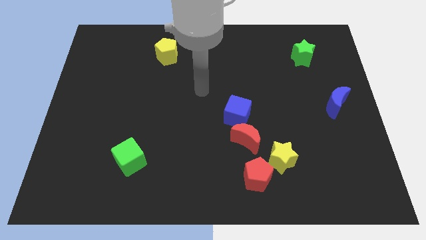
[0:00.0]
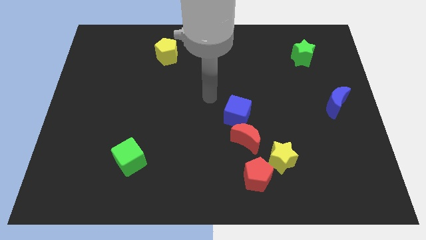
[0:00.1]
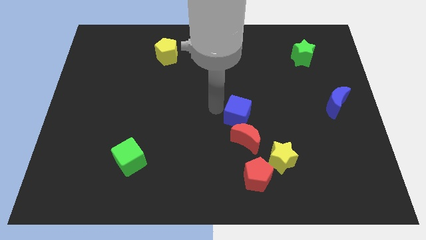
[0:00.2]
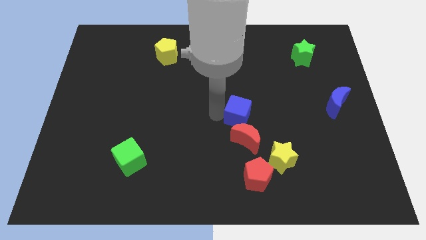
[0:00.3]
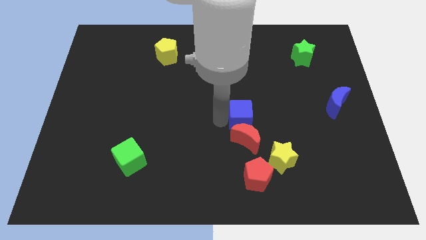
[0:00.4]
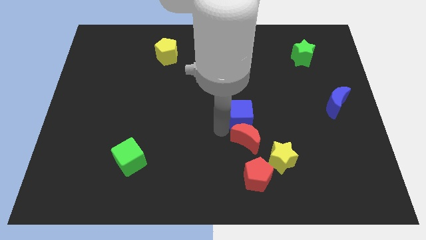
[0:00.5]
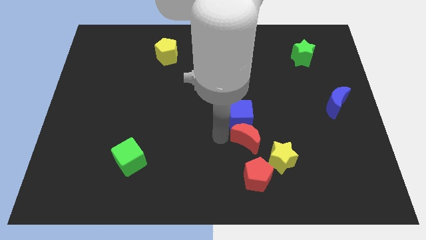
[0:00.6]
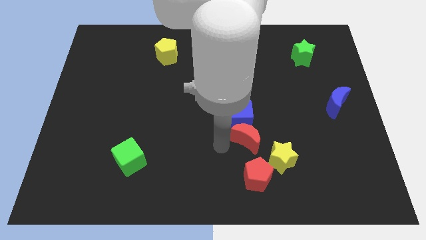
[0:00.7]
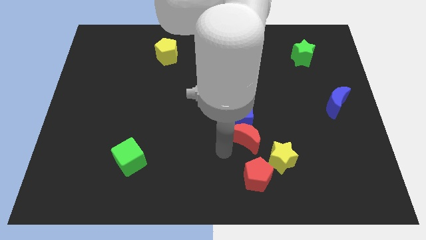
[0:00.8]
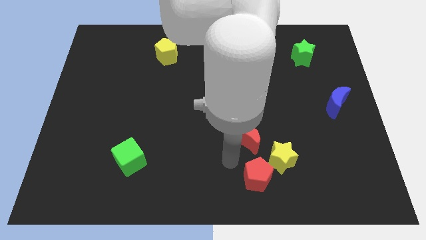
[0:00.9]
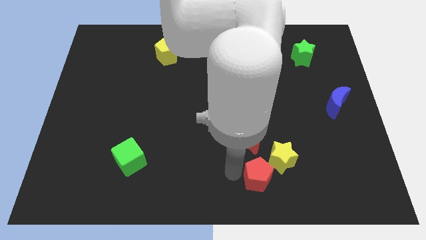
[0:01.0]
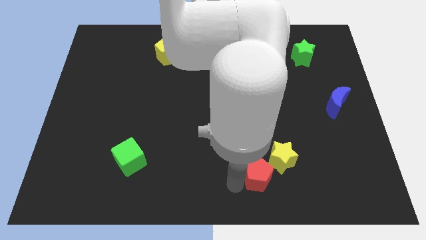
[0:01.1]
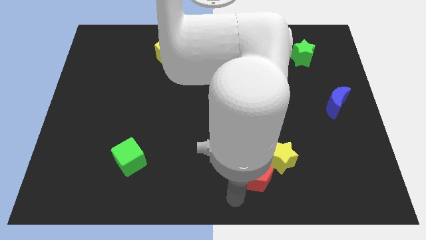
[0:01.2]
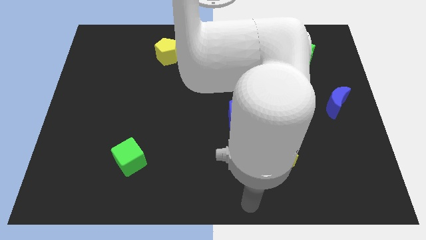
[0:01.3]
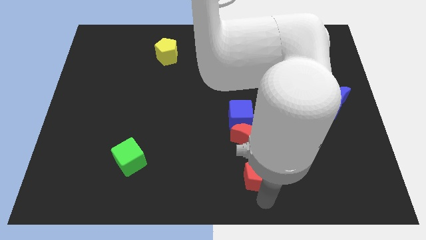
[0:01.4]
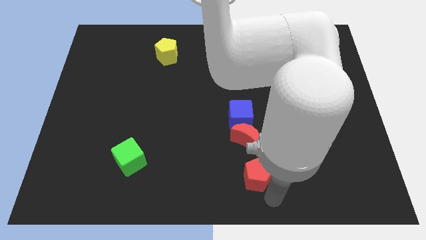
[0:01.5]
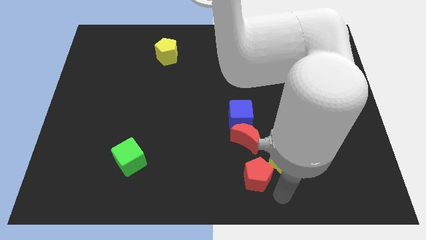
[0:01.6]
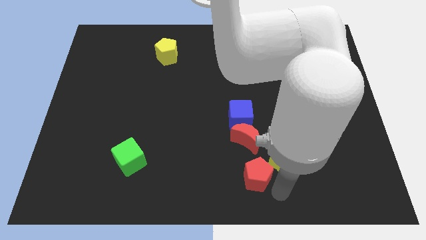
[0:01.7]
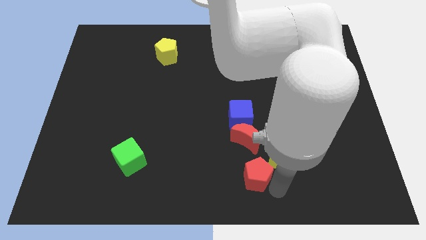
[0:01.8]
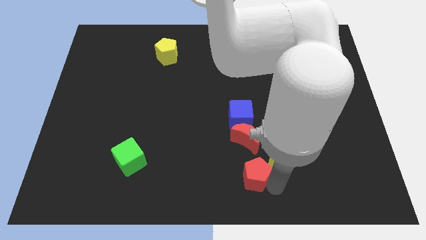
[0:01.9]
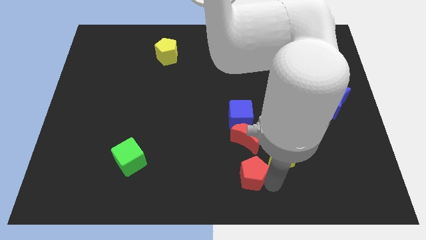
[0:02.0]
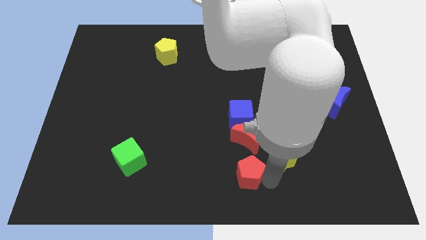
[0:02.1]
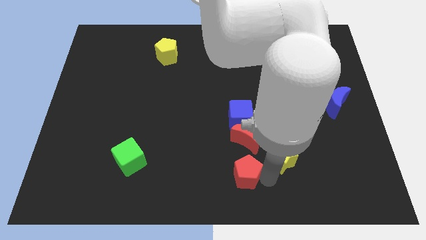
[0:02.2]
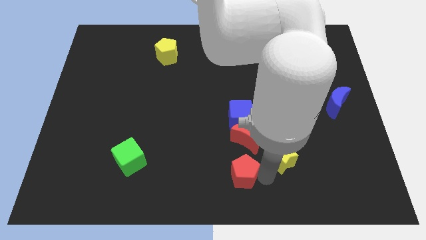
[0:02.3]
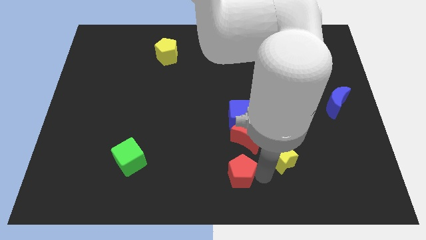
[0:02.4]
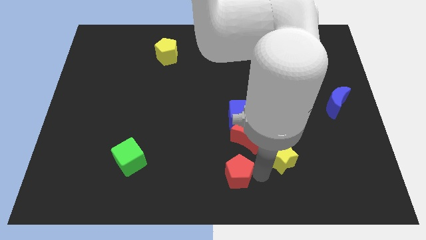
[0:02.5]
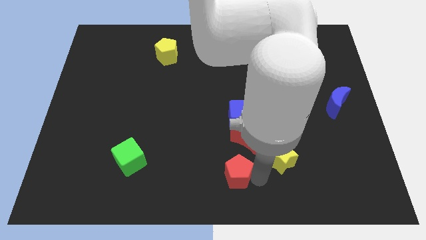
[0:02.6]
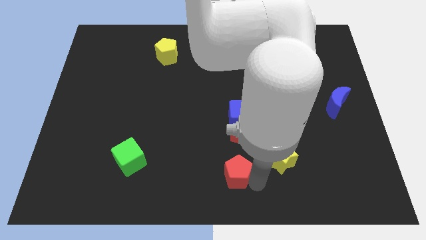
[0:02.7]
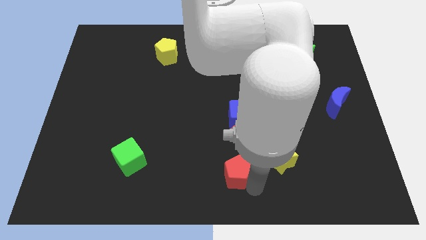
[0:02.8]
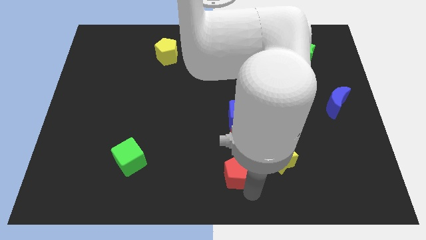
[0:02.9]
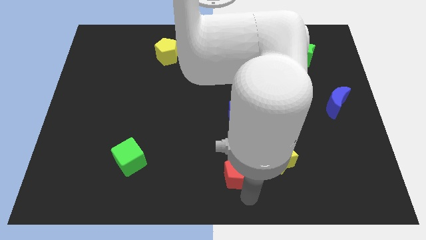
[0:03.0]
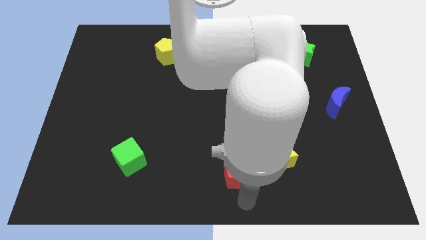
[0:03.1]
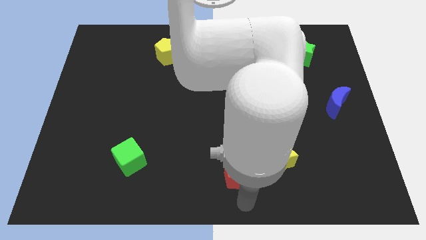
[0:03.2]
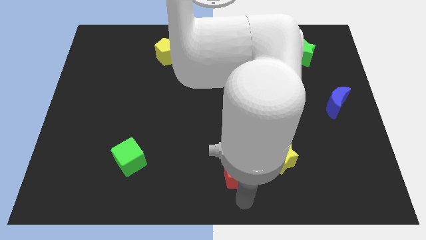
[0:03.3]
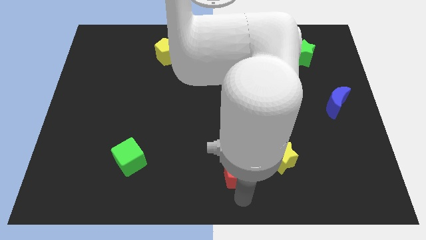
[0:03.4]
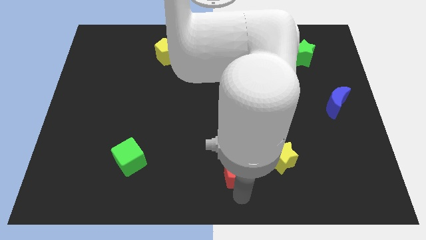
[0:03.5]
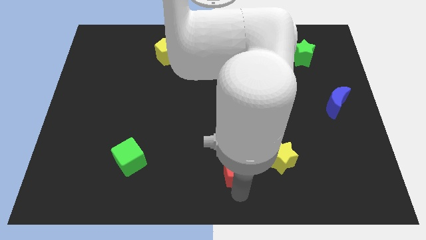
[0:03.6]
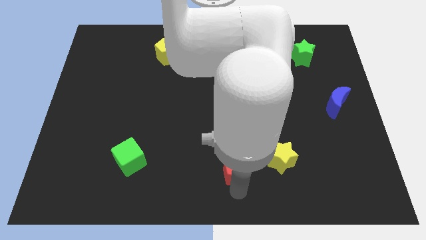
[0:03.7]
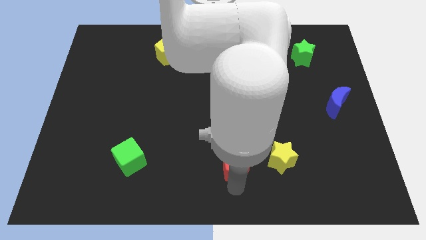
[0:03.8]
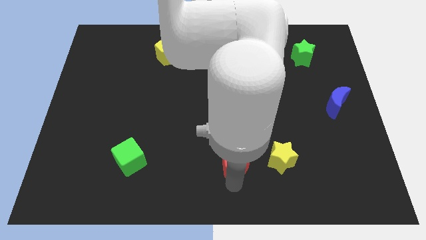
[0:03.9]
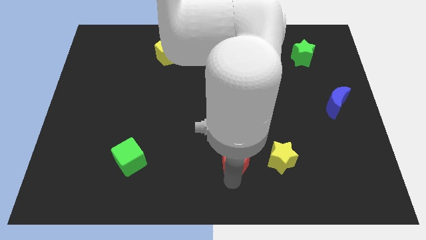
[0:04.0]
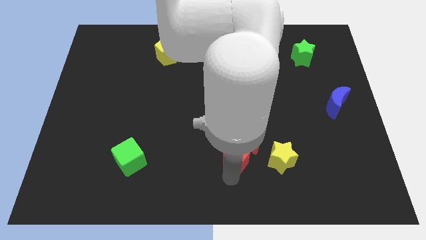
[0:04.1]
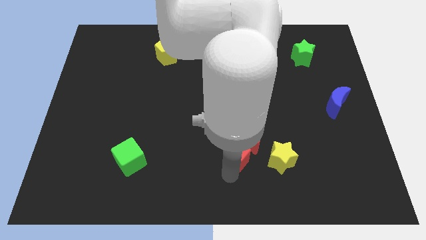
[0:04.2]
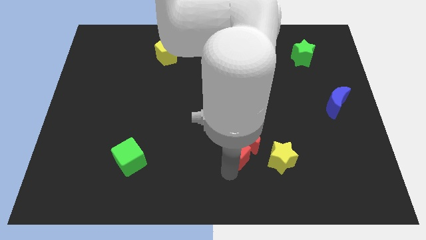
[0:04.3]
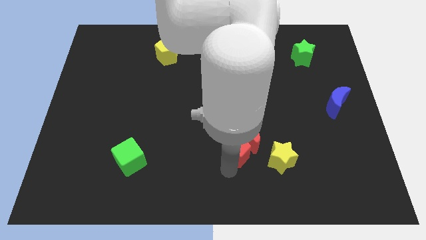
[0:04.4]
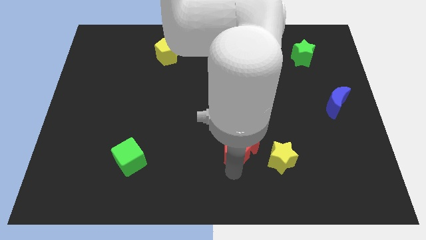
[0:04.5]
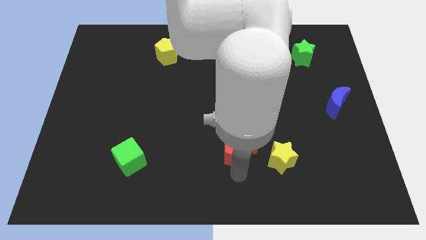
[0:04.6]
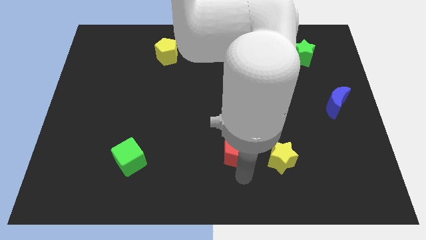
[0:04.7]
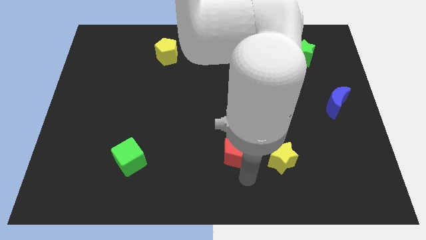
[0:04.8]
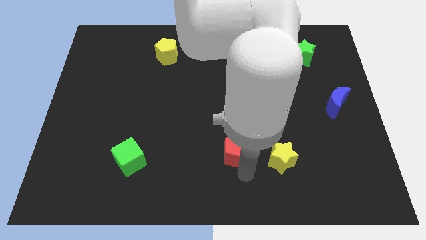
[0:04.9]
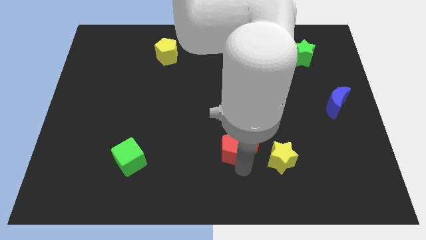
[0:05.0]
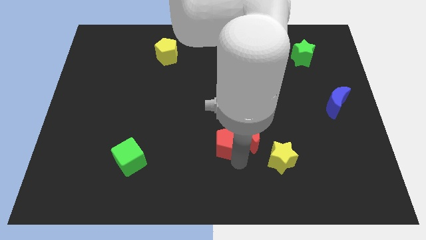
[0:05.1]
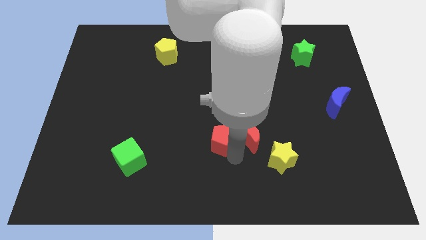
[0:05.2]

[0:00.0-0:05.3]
slide the red pentagon upwards somewhat

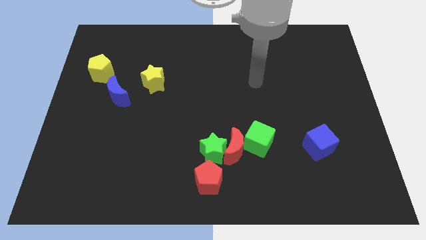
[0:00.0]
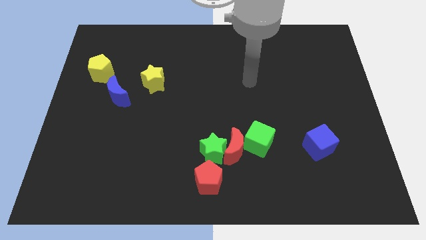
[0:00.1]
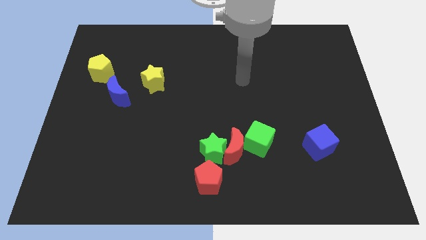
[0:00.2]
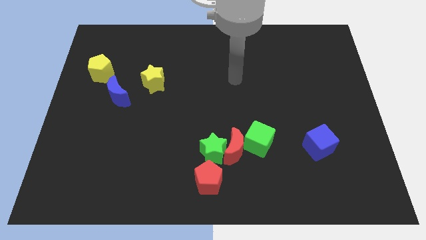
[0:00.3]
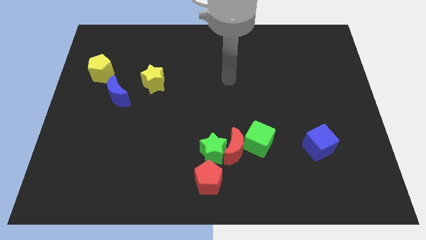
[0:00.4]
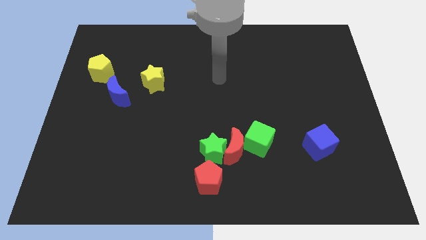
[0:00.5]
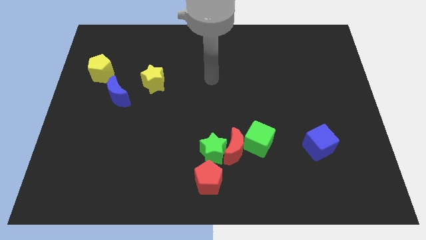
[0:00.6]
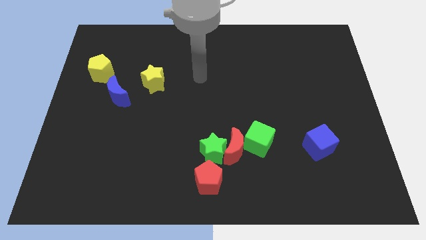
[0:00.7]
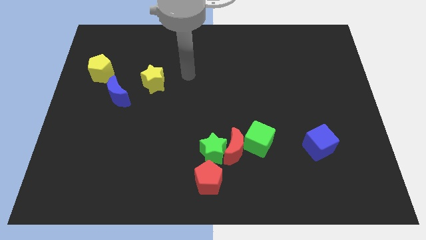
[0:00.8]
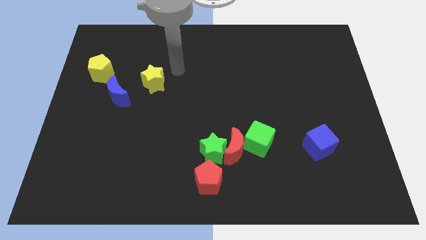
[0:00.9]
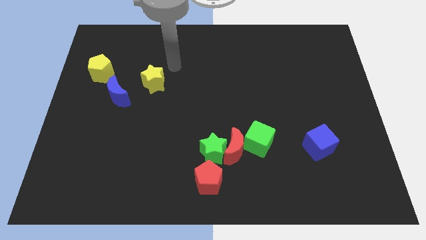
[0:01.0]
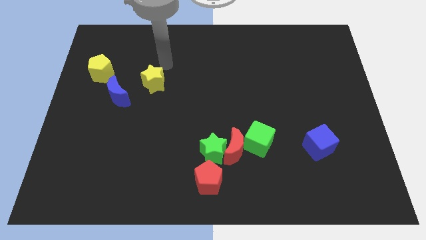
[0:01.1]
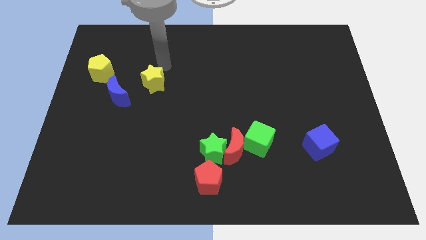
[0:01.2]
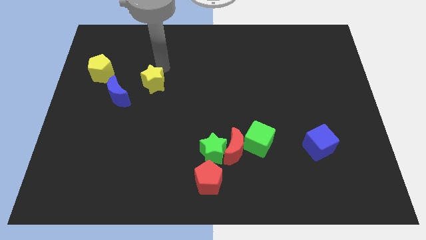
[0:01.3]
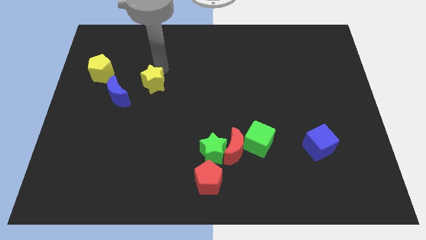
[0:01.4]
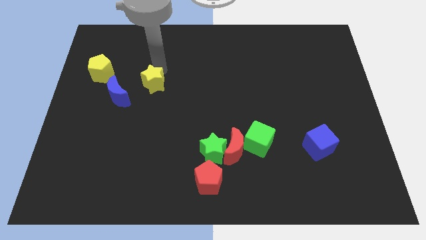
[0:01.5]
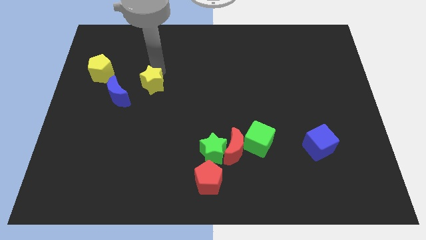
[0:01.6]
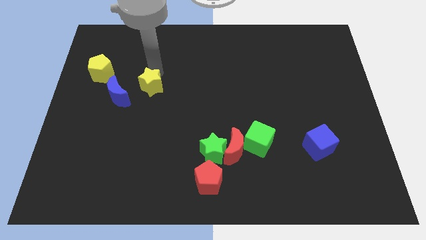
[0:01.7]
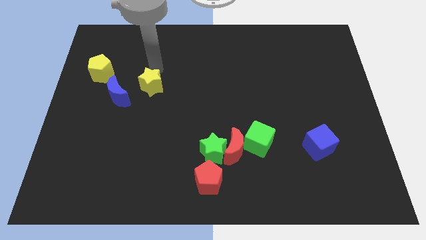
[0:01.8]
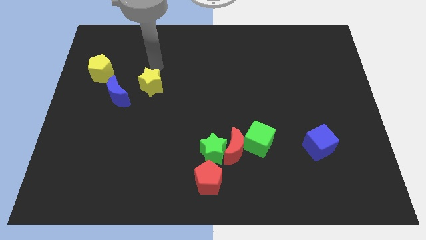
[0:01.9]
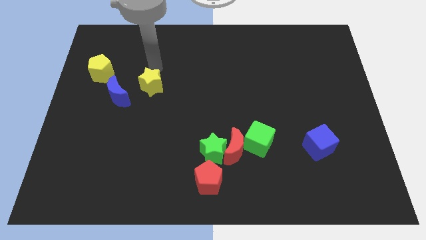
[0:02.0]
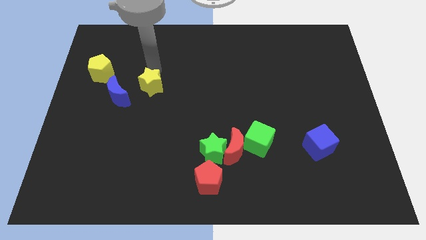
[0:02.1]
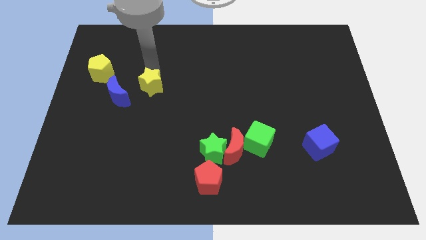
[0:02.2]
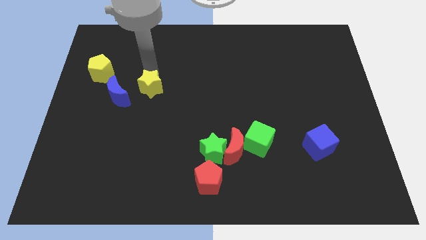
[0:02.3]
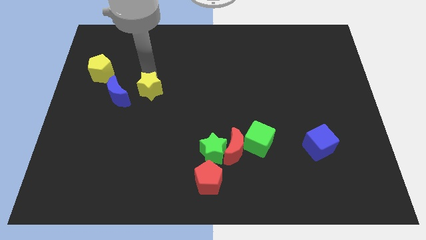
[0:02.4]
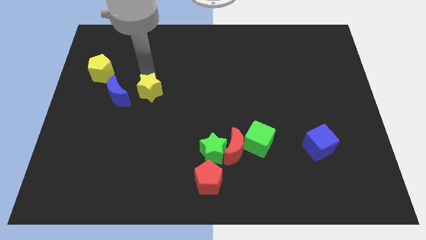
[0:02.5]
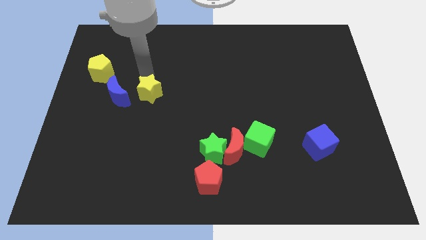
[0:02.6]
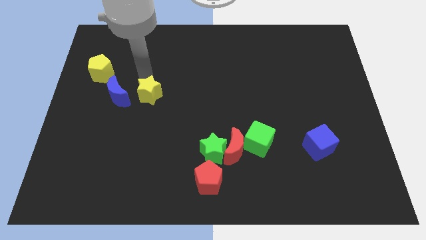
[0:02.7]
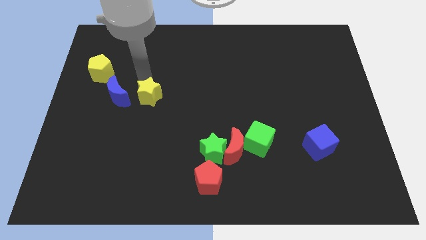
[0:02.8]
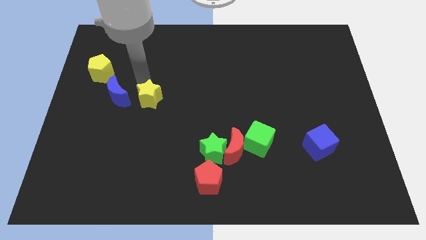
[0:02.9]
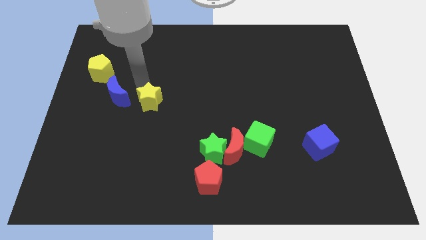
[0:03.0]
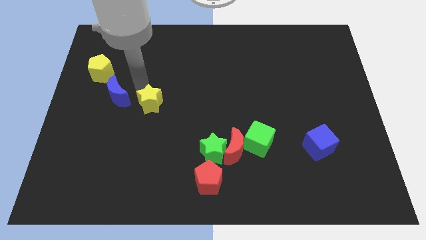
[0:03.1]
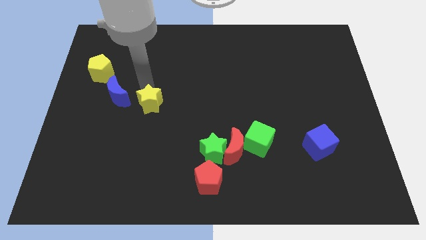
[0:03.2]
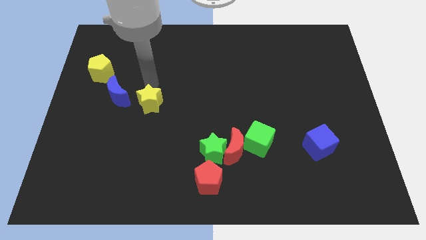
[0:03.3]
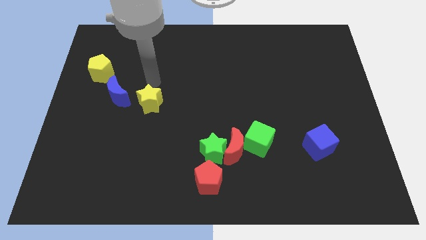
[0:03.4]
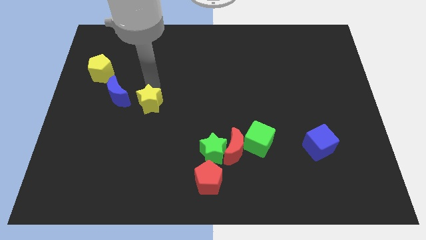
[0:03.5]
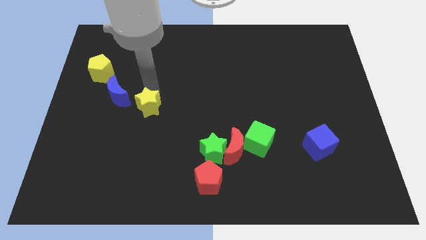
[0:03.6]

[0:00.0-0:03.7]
move the yellow star down a bit
